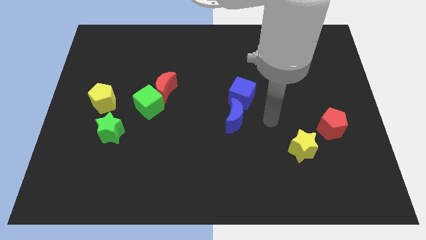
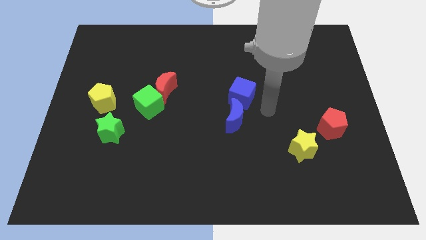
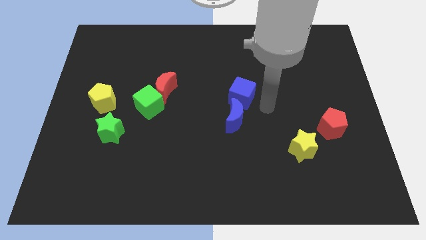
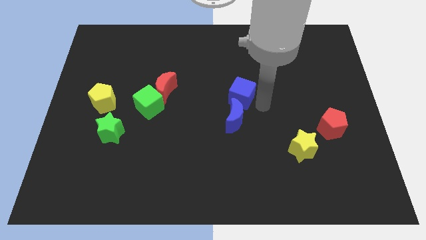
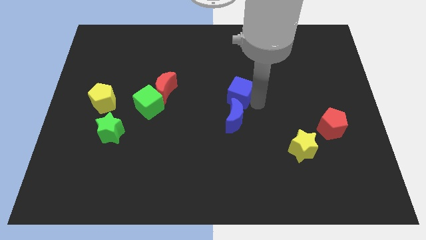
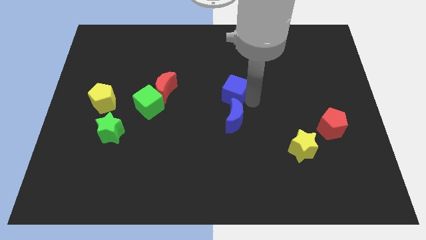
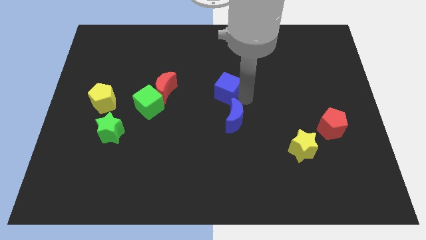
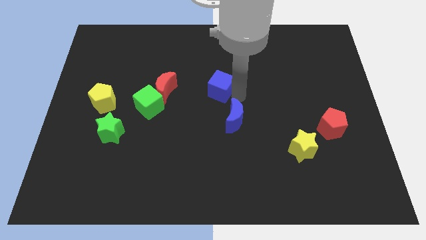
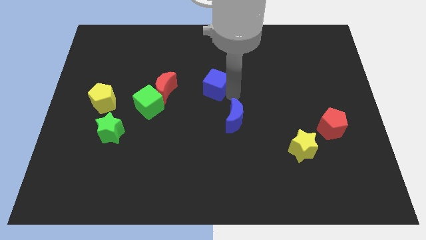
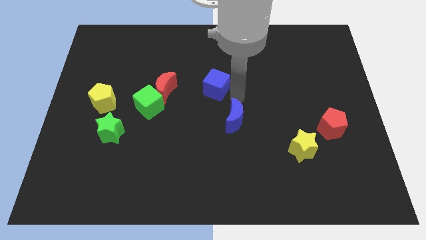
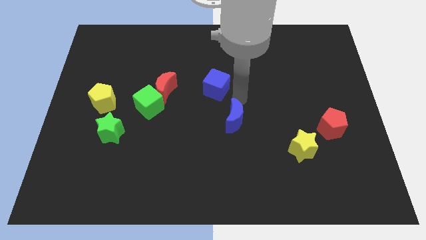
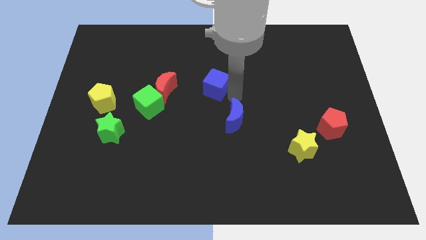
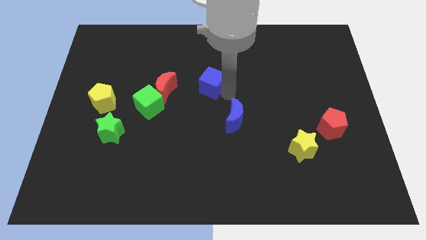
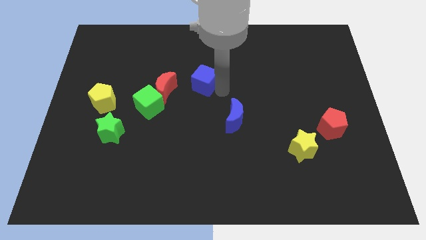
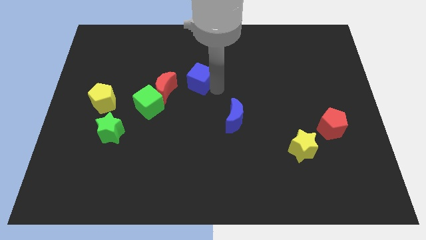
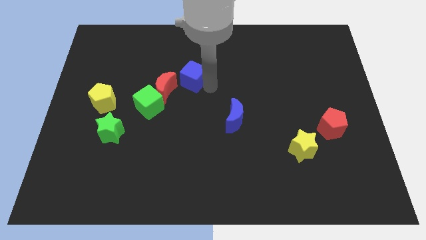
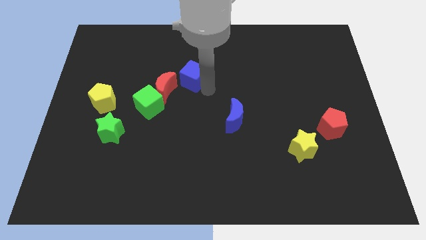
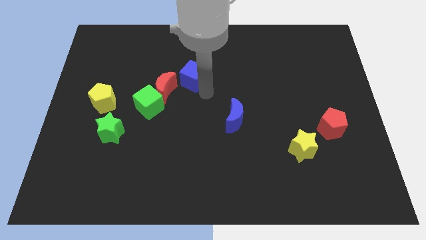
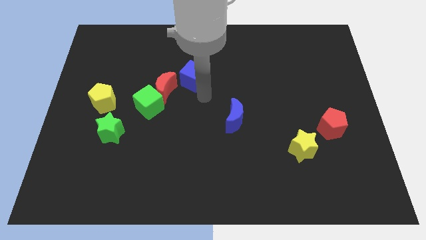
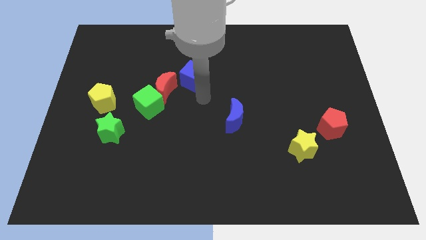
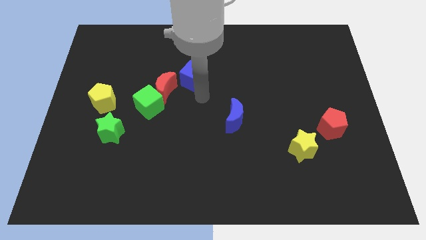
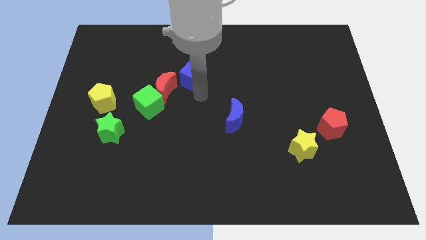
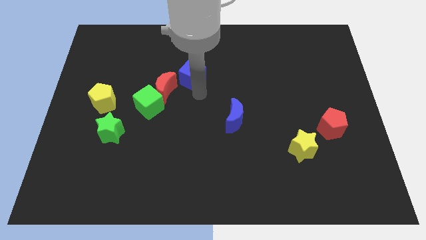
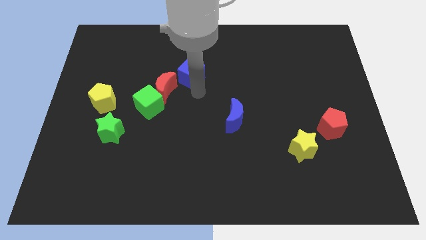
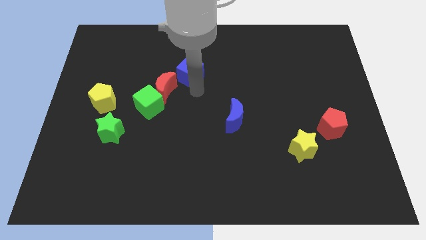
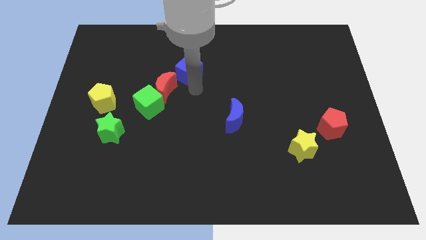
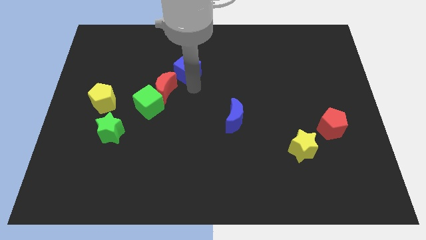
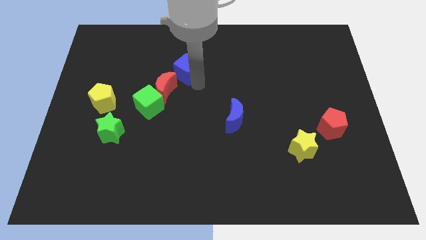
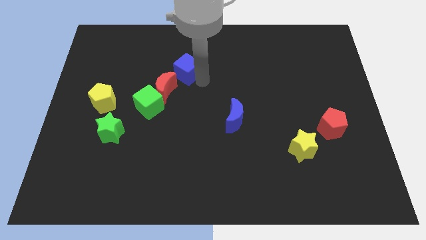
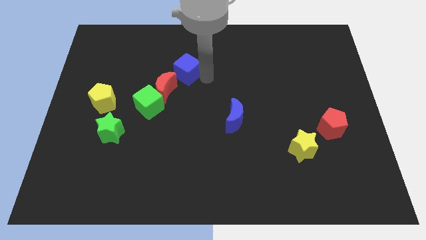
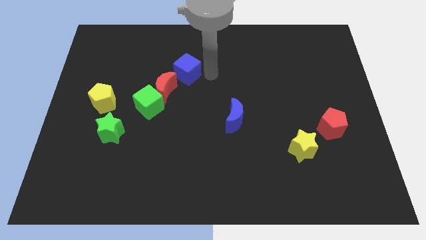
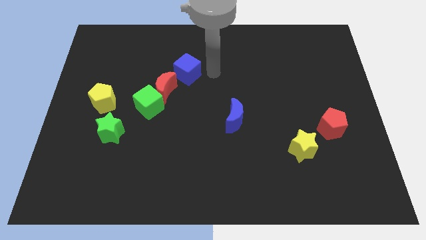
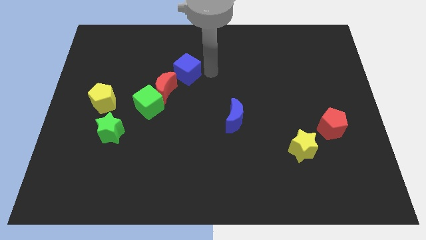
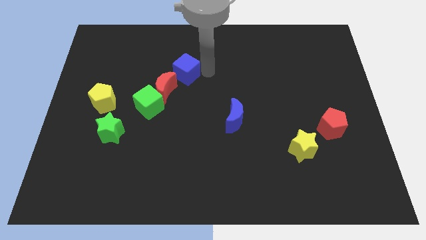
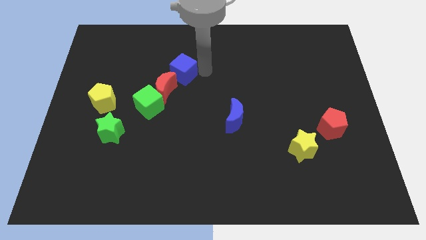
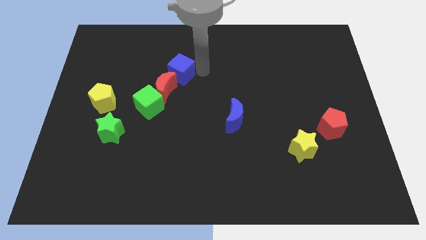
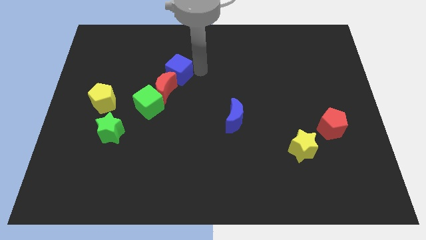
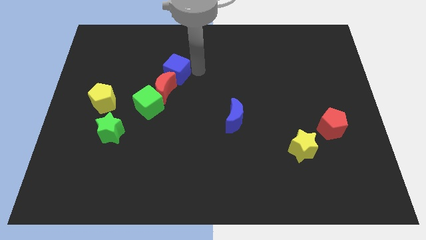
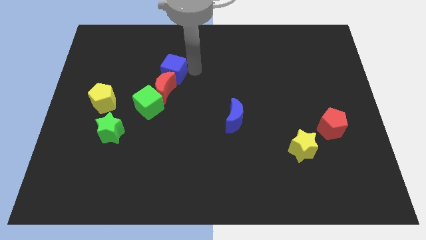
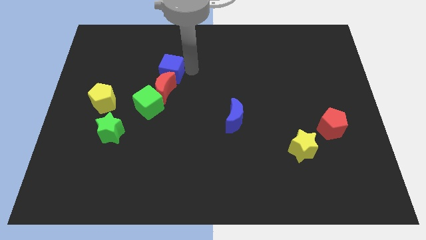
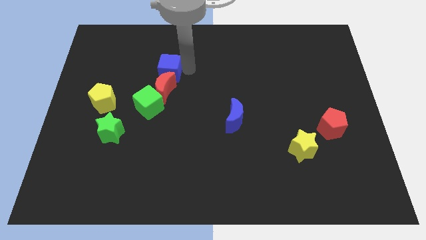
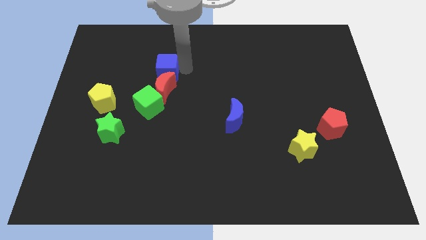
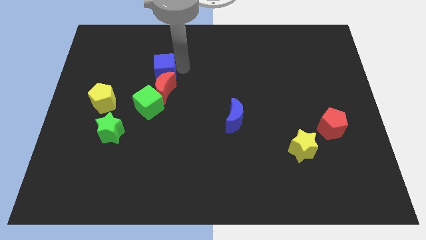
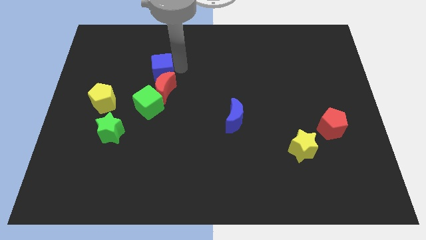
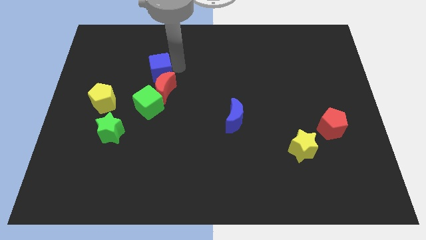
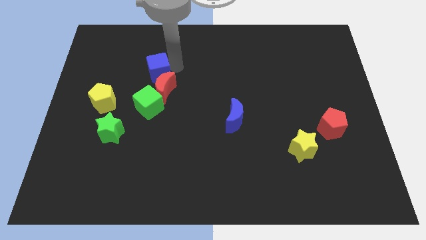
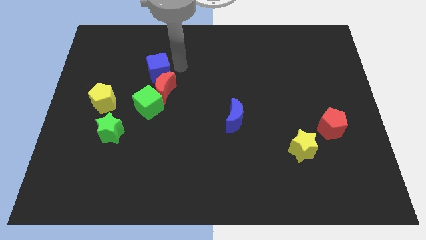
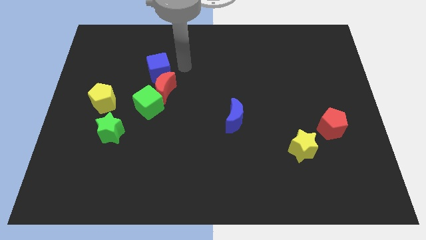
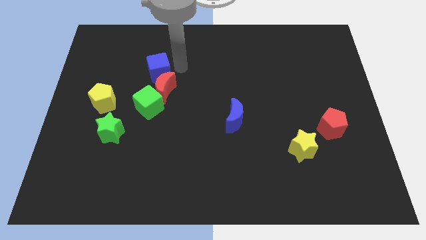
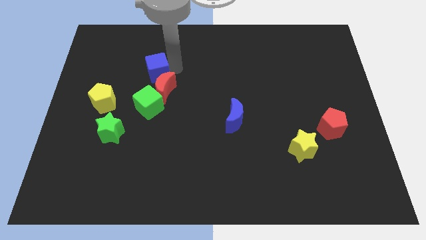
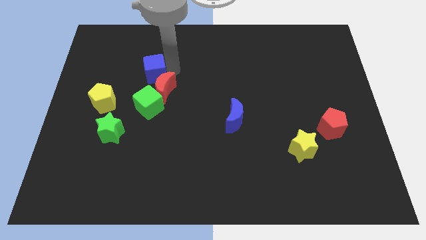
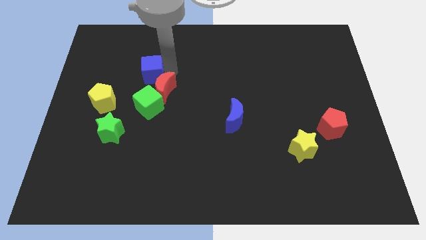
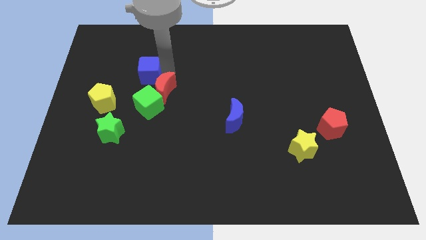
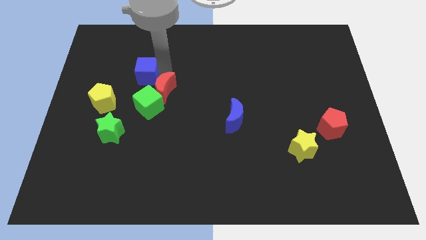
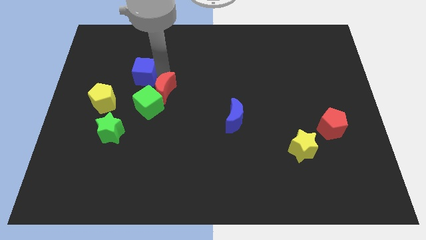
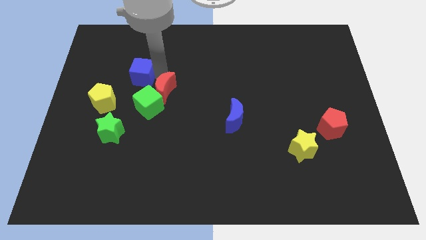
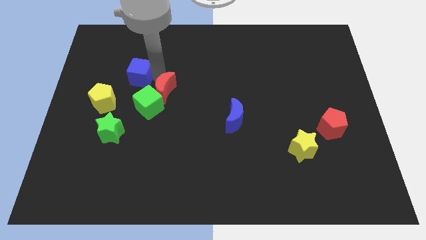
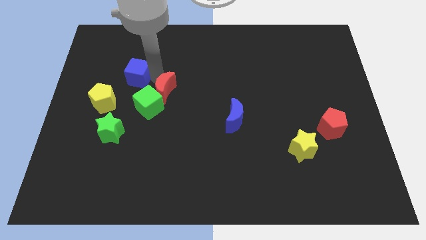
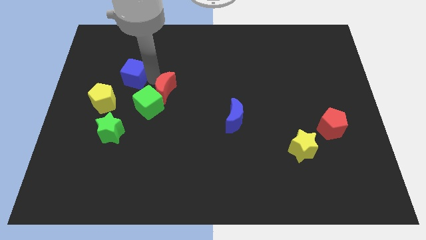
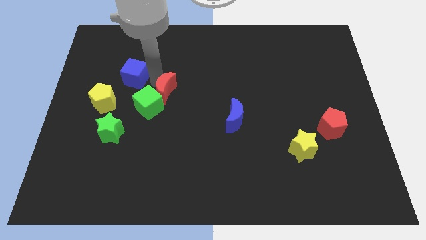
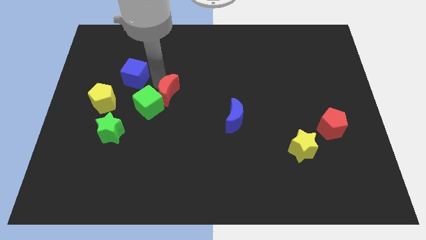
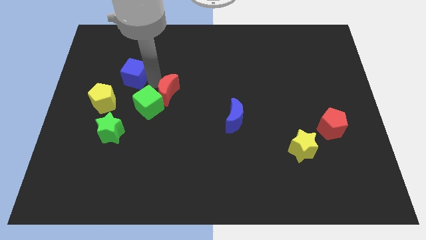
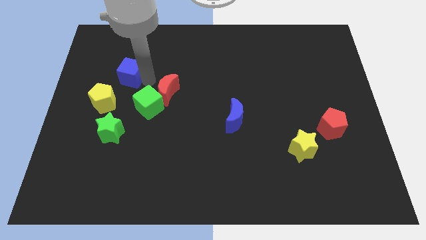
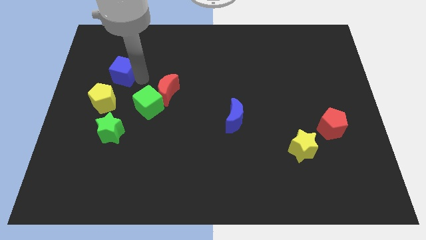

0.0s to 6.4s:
put the blue cube above the yellow pentagon

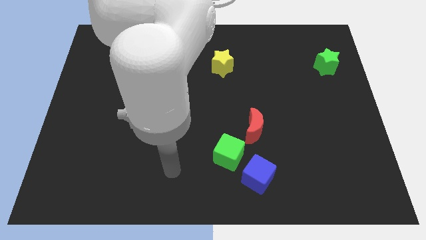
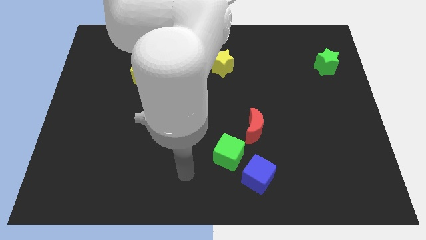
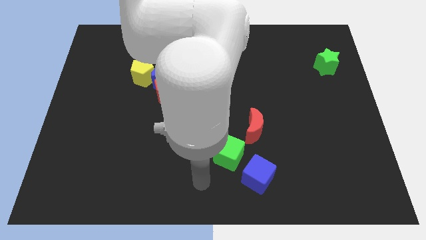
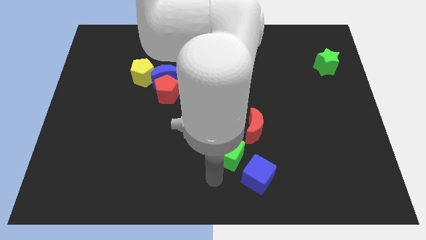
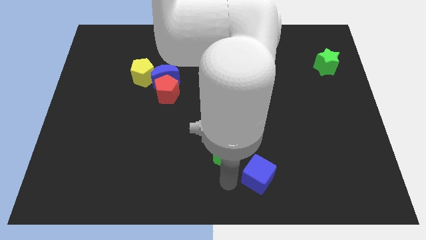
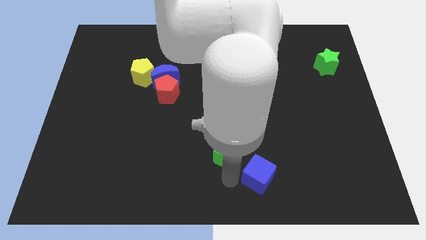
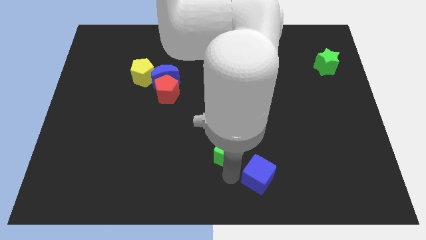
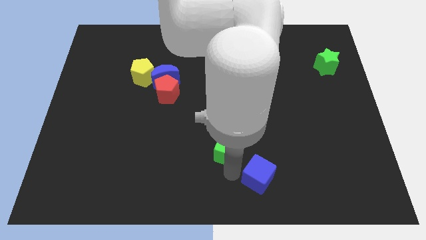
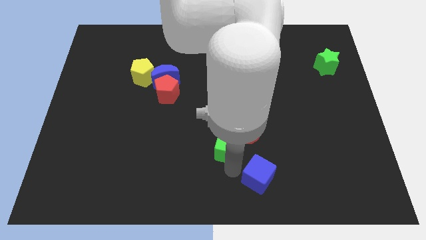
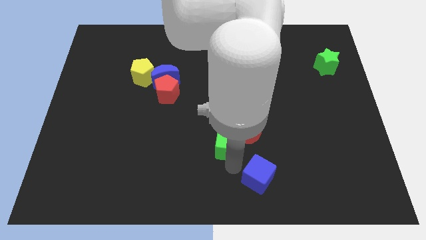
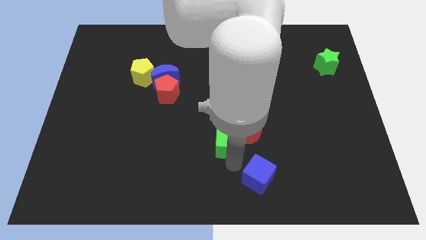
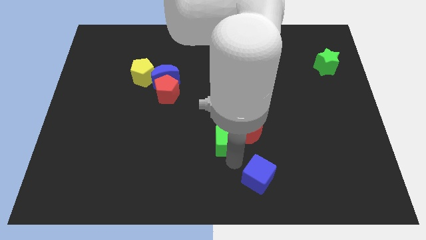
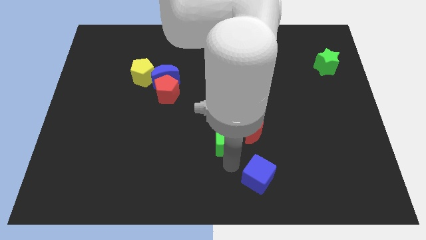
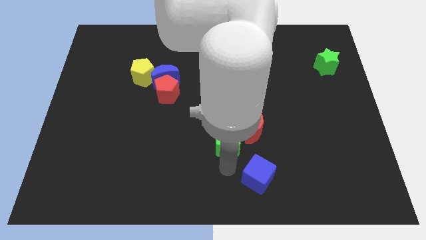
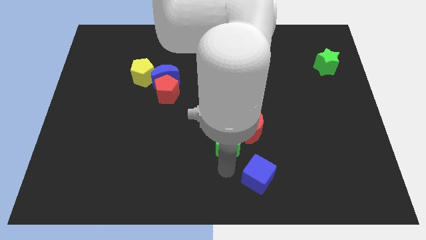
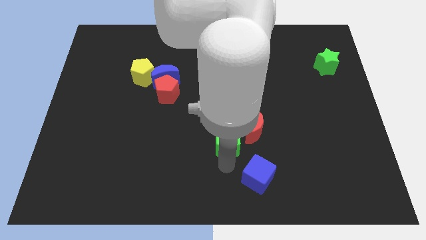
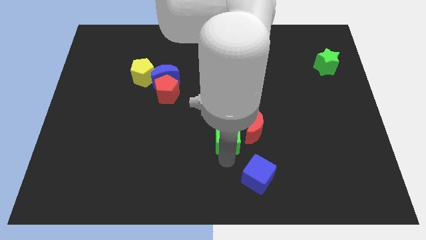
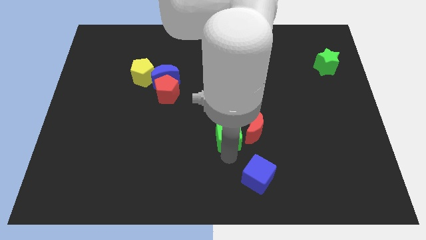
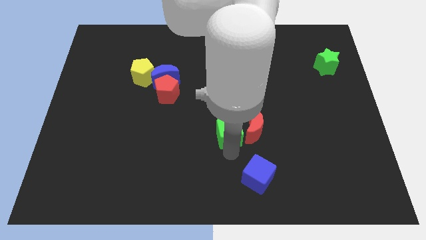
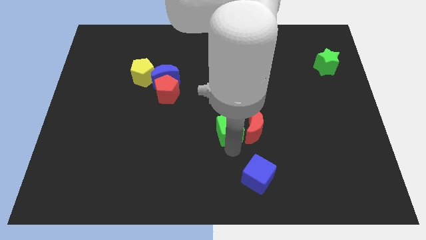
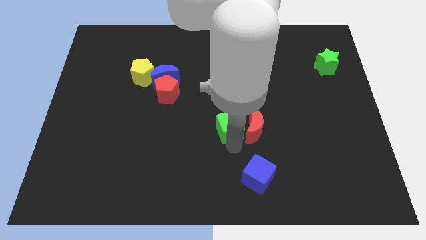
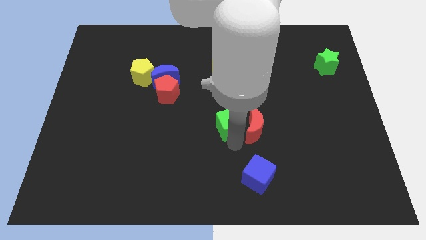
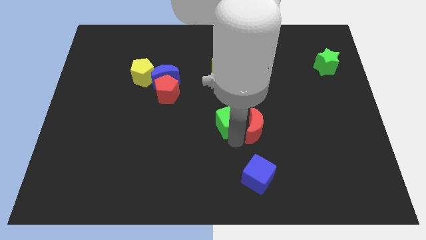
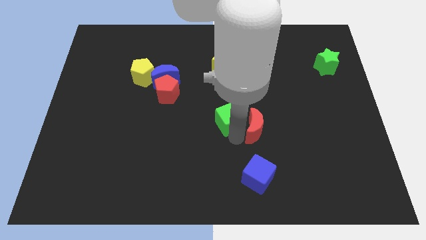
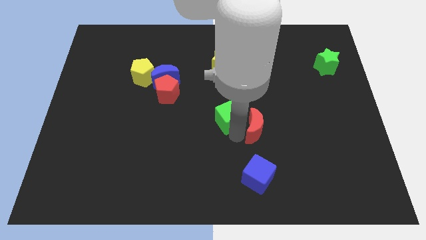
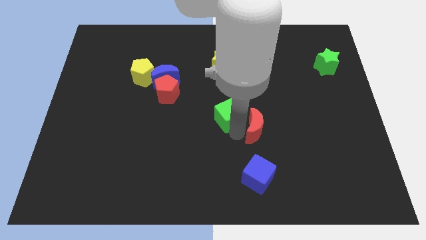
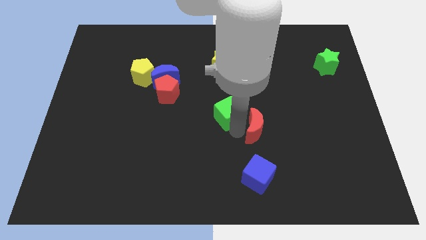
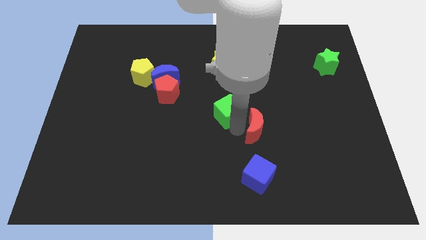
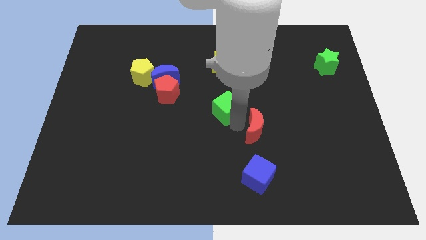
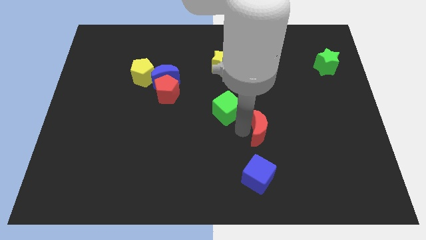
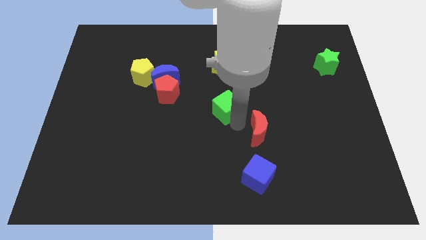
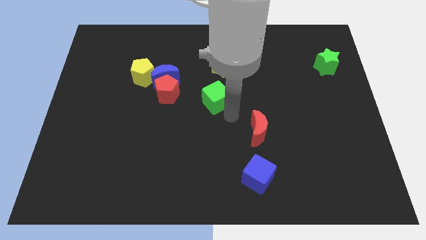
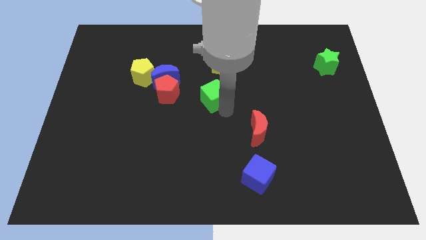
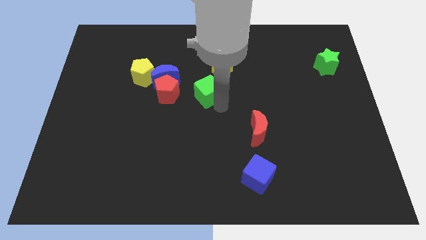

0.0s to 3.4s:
move the green cube diagonally down and to the left of the yellow star
